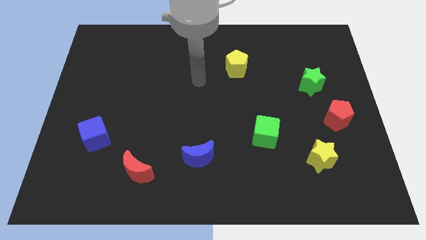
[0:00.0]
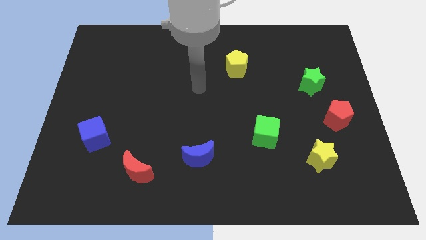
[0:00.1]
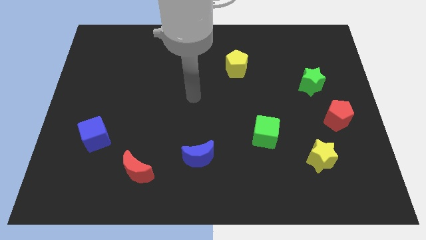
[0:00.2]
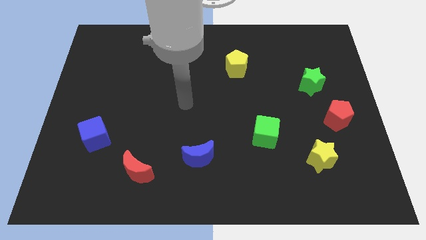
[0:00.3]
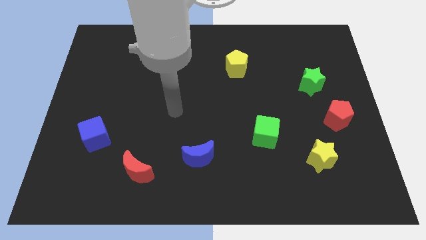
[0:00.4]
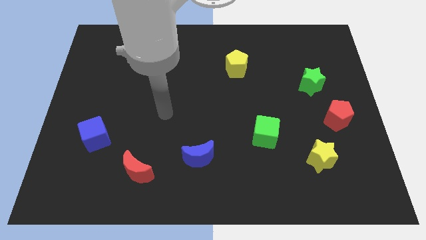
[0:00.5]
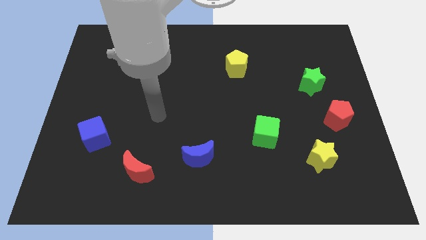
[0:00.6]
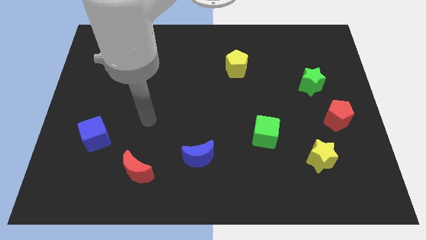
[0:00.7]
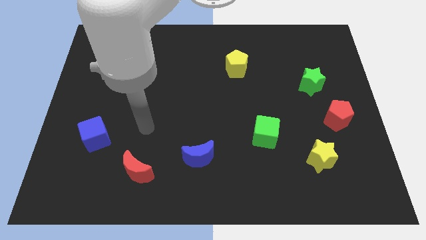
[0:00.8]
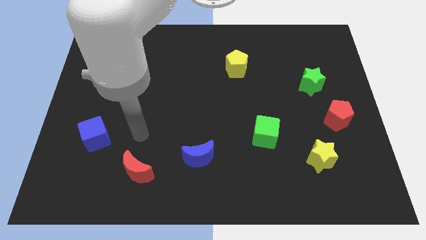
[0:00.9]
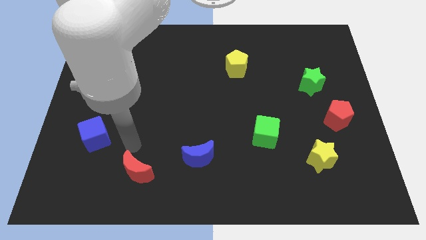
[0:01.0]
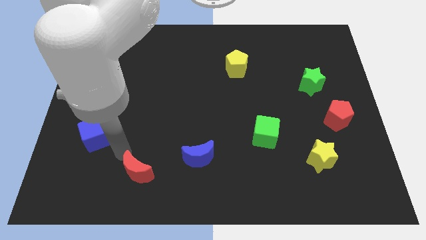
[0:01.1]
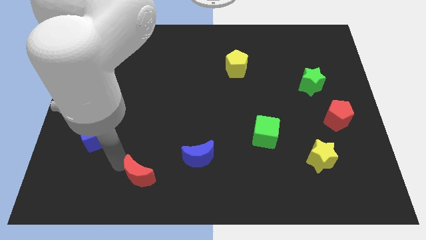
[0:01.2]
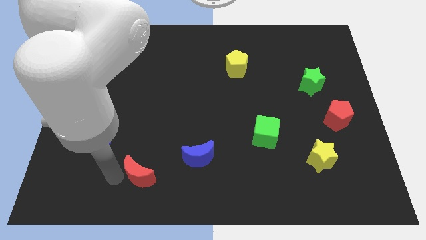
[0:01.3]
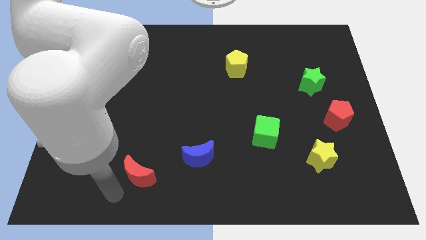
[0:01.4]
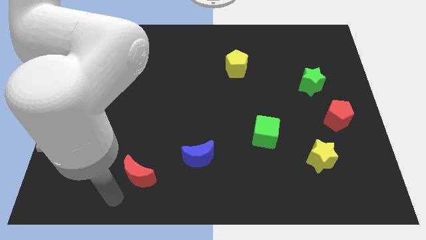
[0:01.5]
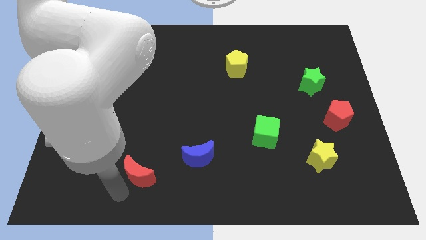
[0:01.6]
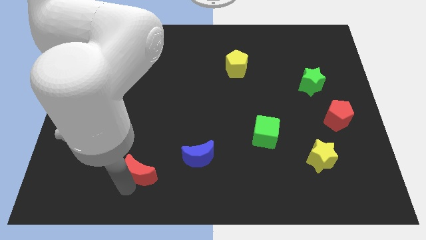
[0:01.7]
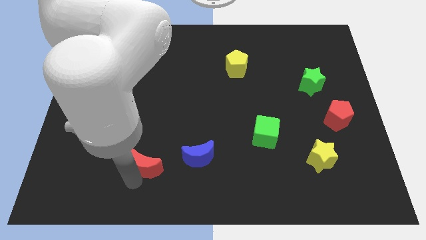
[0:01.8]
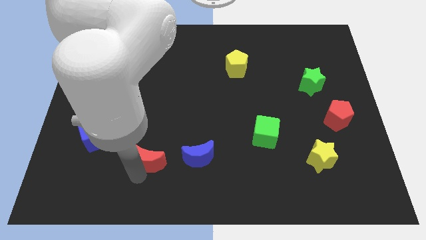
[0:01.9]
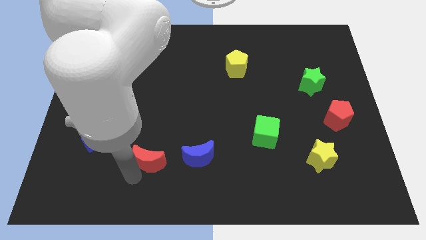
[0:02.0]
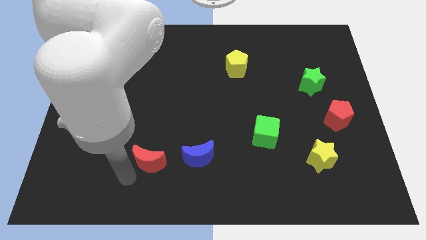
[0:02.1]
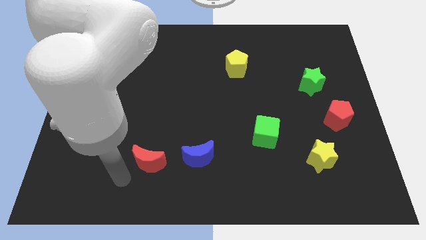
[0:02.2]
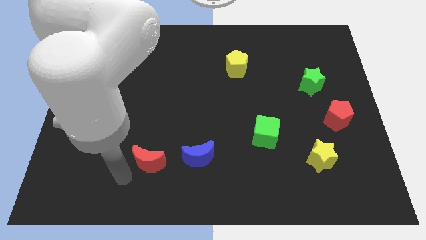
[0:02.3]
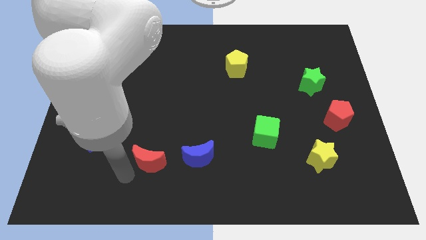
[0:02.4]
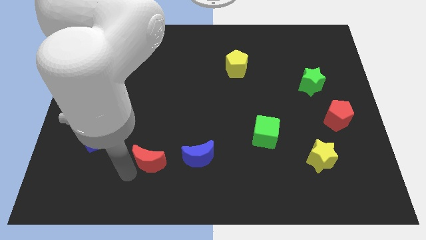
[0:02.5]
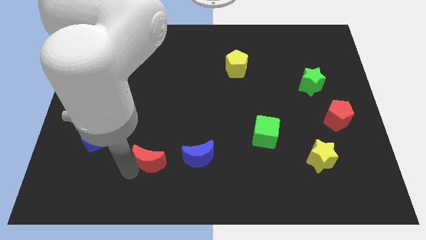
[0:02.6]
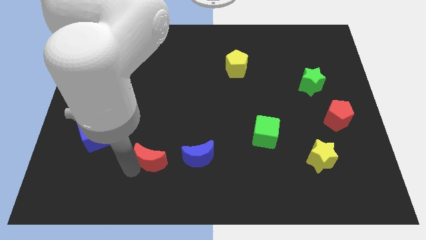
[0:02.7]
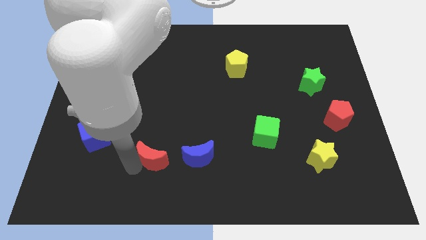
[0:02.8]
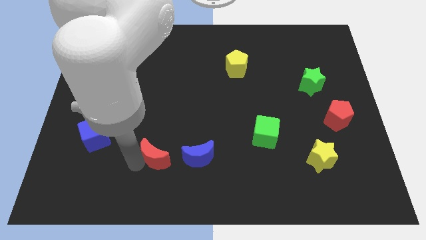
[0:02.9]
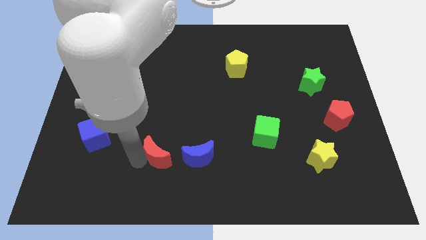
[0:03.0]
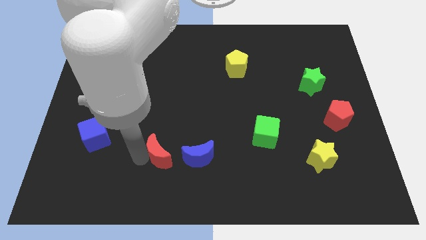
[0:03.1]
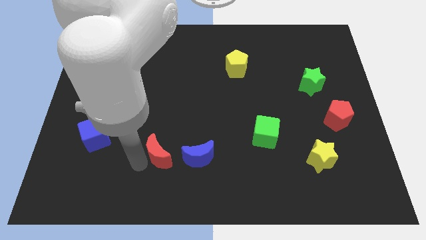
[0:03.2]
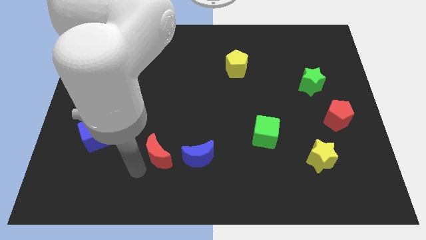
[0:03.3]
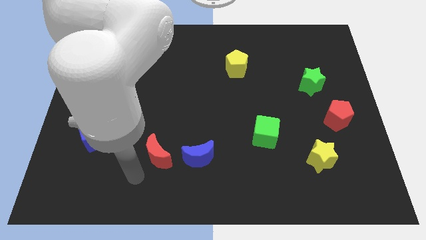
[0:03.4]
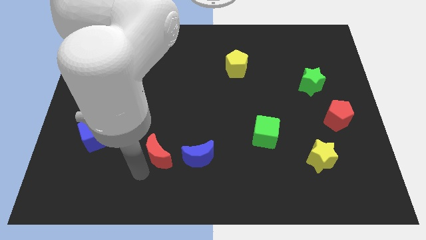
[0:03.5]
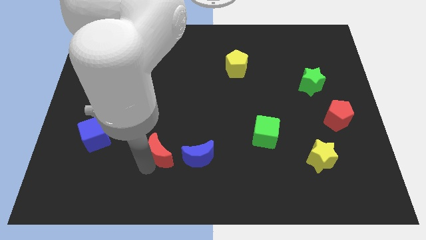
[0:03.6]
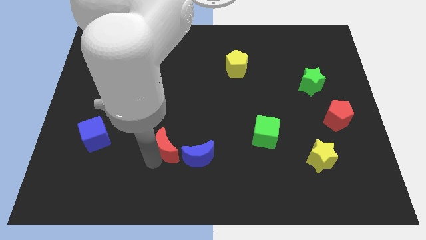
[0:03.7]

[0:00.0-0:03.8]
slide the red moon upwards and right a little

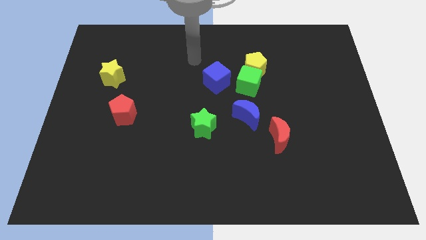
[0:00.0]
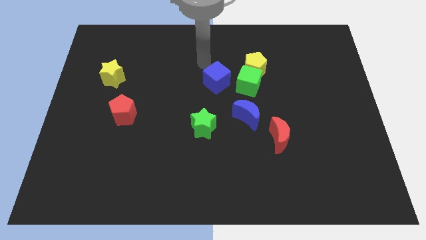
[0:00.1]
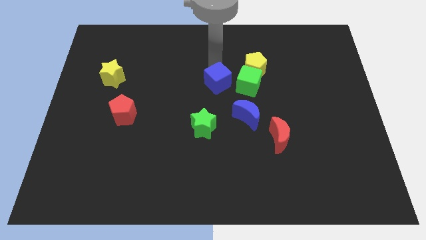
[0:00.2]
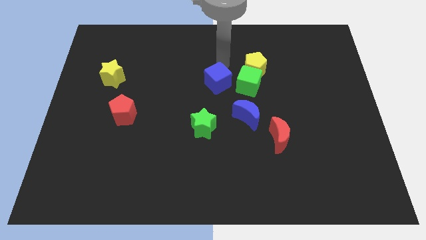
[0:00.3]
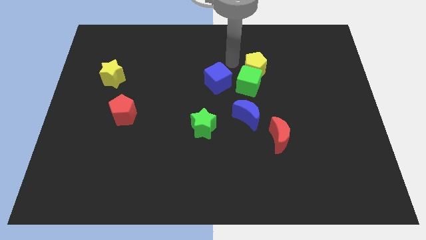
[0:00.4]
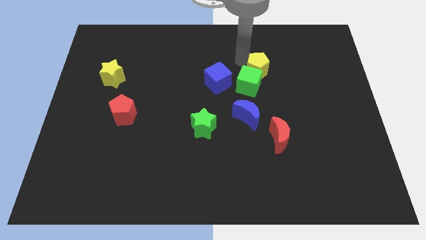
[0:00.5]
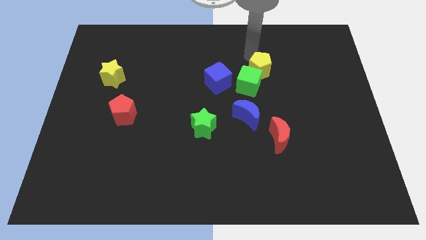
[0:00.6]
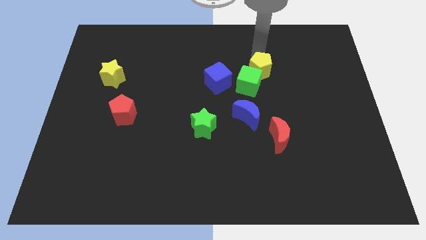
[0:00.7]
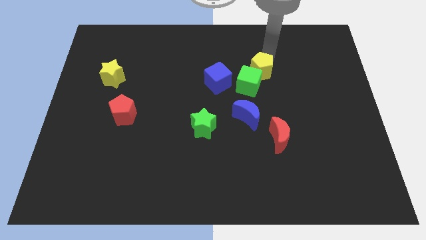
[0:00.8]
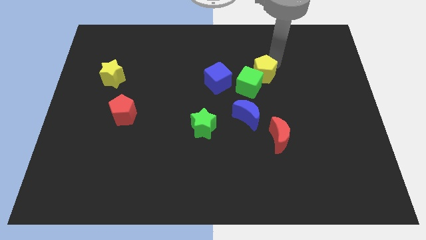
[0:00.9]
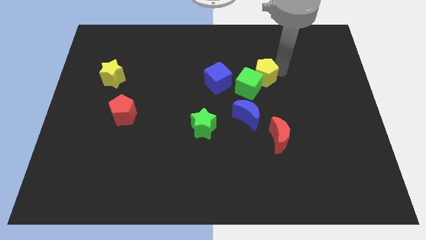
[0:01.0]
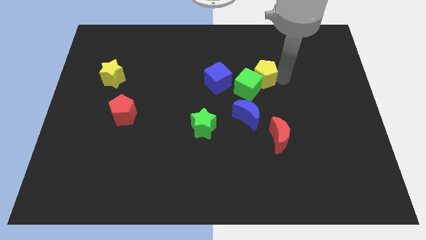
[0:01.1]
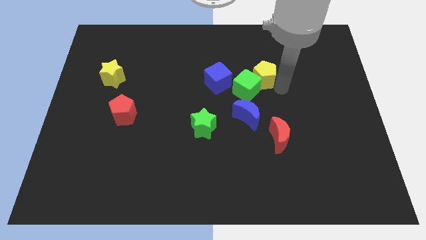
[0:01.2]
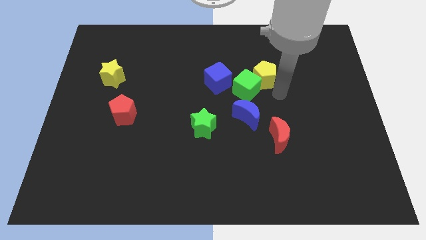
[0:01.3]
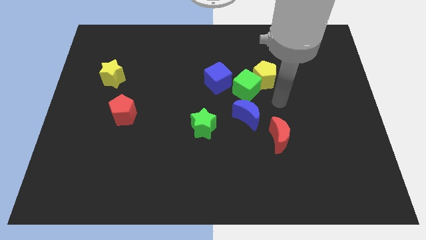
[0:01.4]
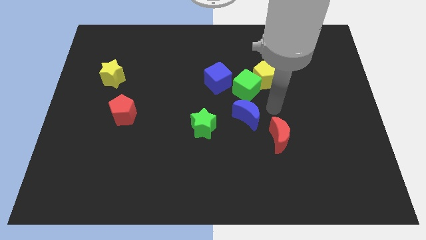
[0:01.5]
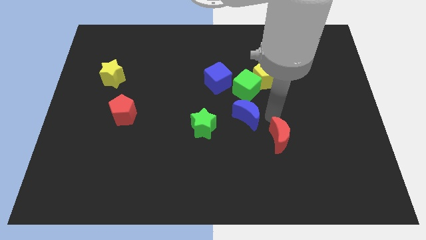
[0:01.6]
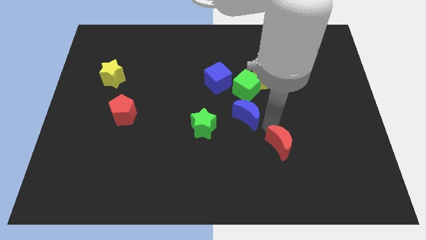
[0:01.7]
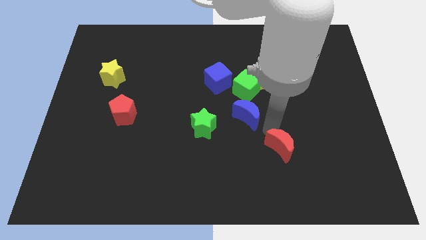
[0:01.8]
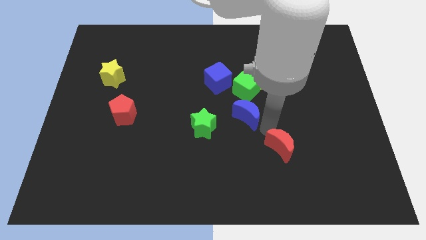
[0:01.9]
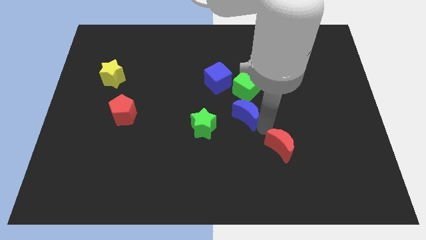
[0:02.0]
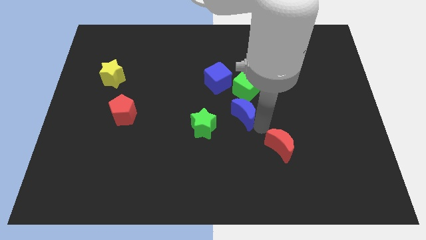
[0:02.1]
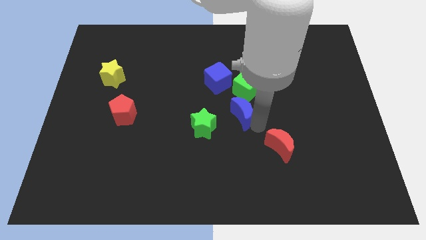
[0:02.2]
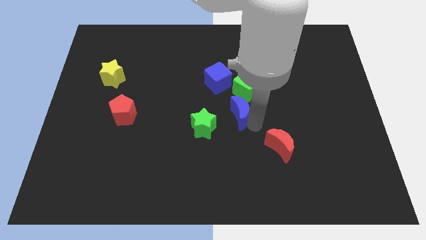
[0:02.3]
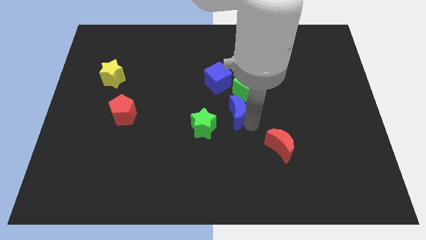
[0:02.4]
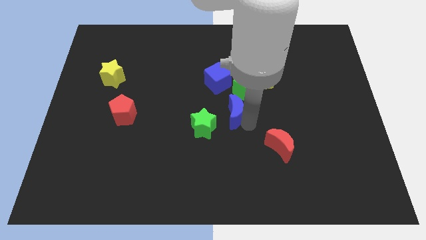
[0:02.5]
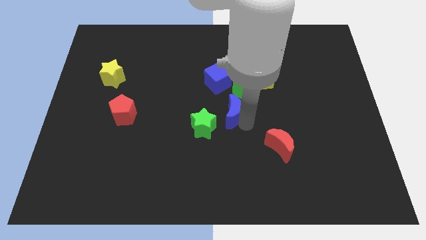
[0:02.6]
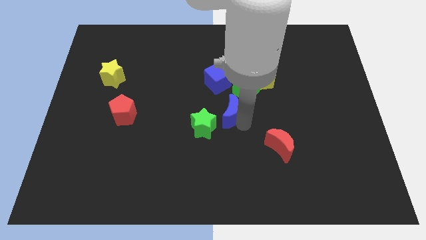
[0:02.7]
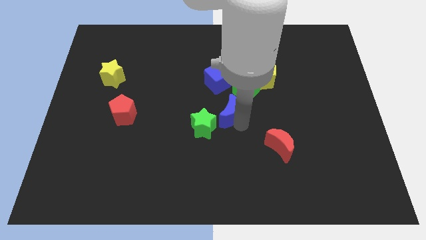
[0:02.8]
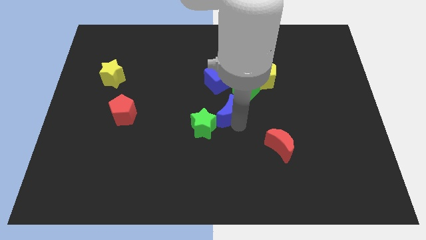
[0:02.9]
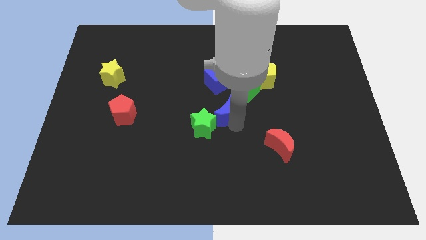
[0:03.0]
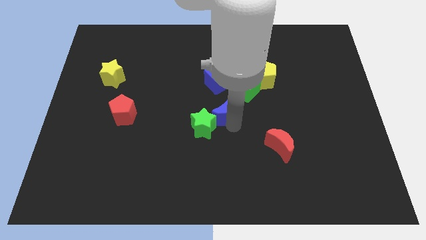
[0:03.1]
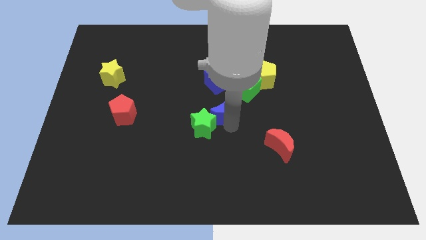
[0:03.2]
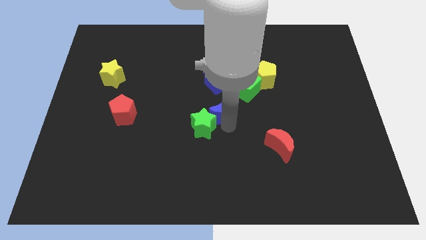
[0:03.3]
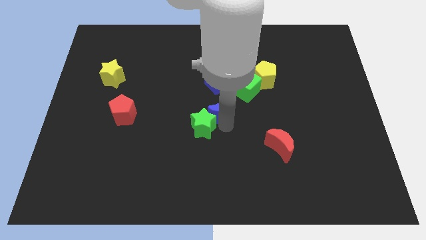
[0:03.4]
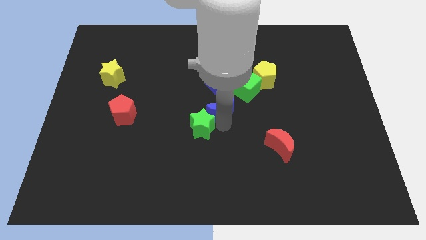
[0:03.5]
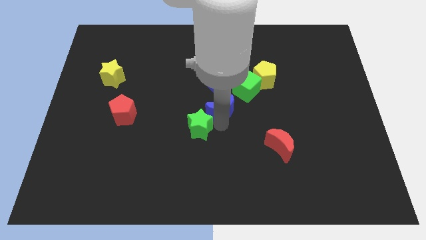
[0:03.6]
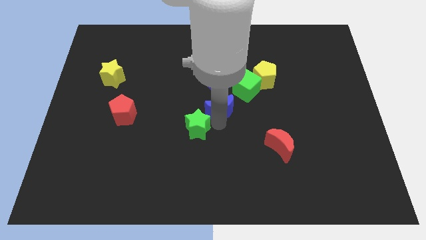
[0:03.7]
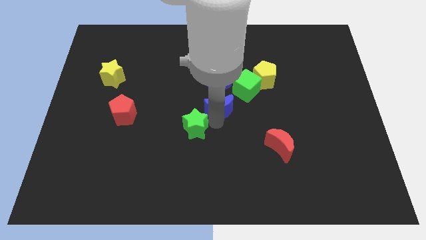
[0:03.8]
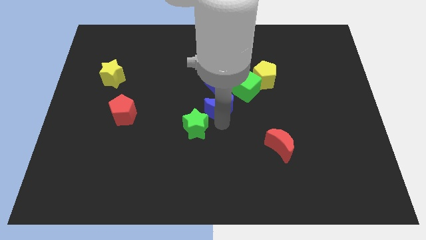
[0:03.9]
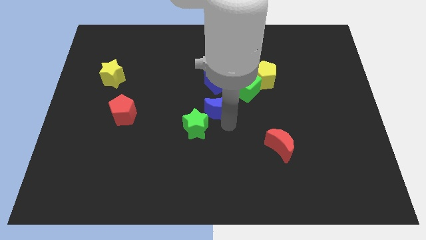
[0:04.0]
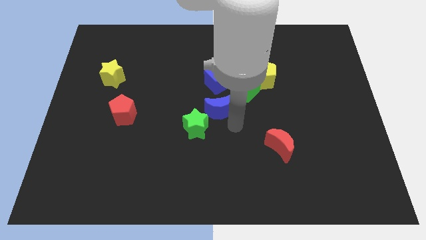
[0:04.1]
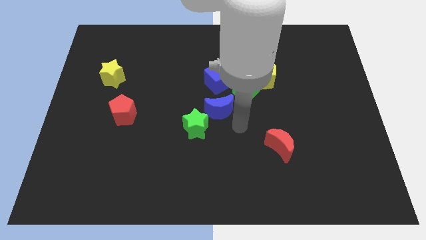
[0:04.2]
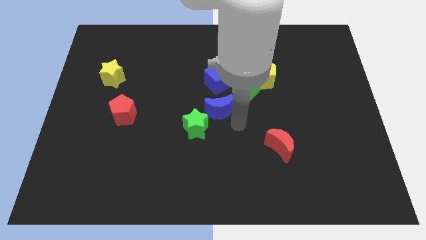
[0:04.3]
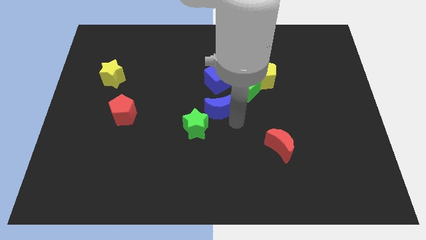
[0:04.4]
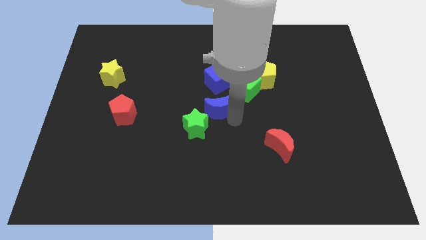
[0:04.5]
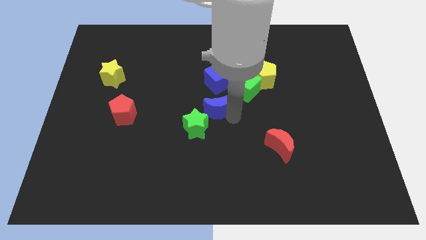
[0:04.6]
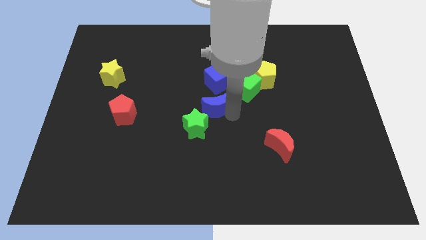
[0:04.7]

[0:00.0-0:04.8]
slightly slide the blue moon to the left
